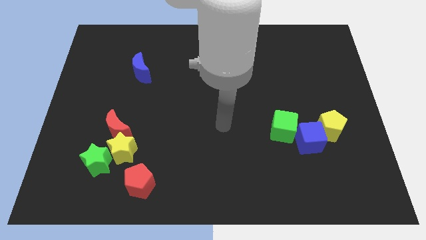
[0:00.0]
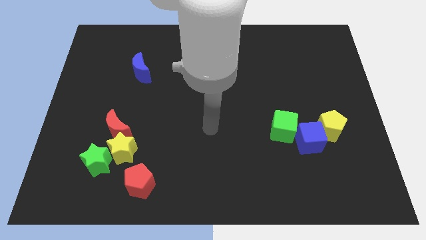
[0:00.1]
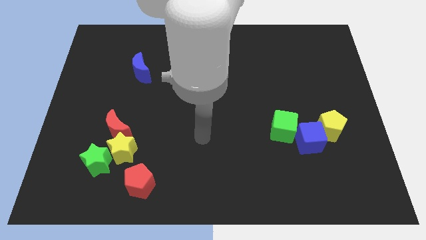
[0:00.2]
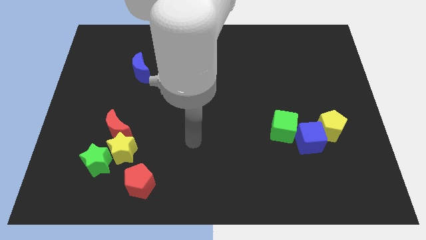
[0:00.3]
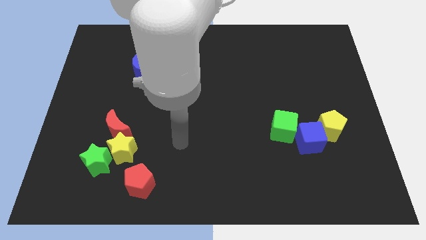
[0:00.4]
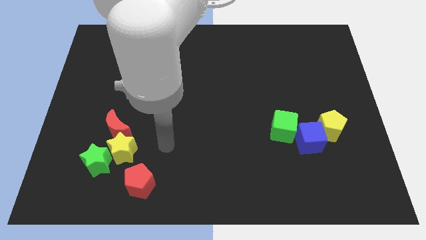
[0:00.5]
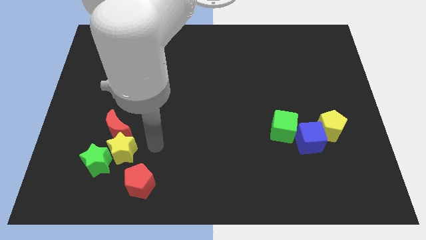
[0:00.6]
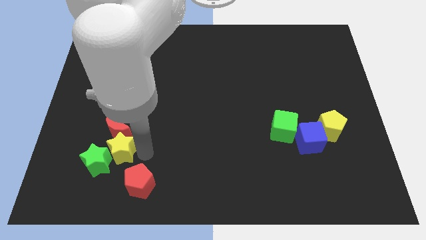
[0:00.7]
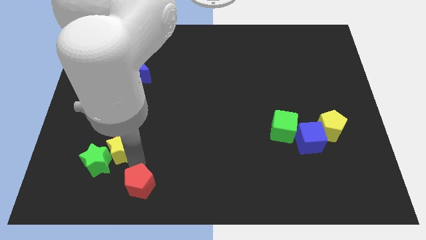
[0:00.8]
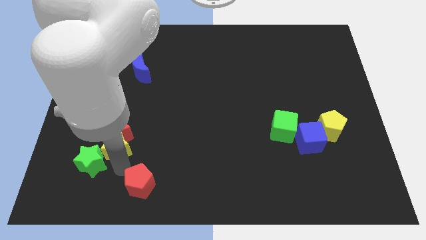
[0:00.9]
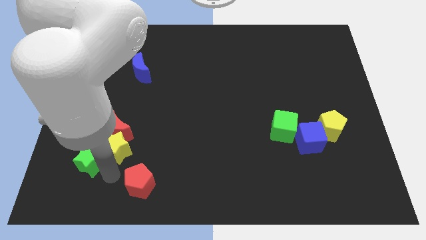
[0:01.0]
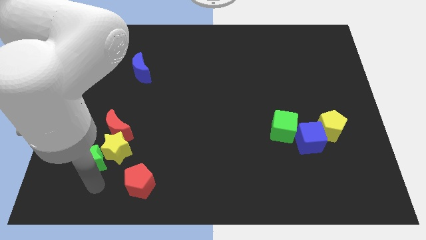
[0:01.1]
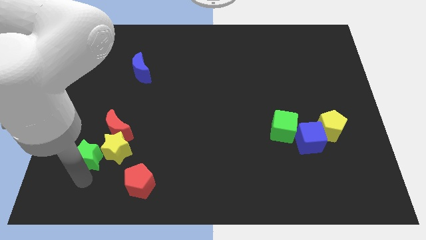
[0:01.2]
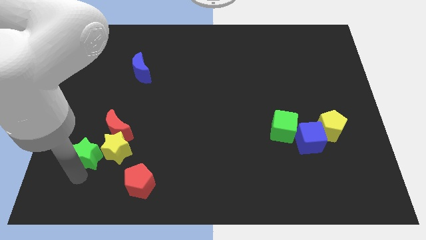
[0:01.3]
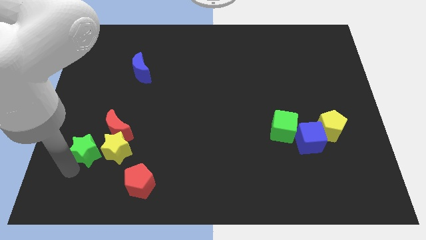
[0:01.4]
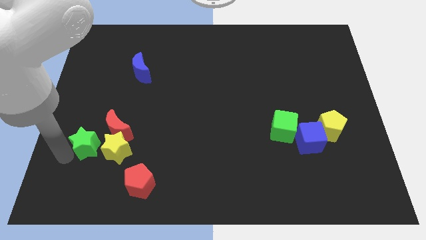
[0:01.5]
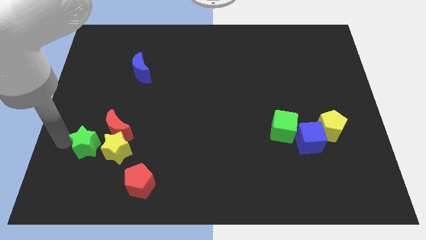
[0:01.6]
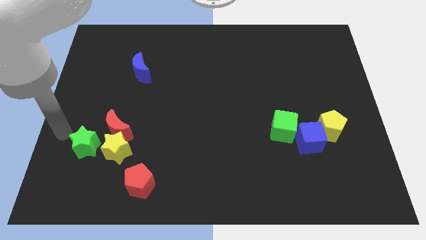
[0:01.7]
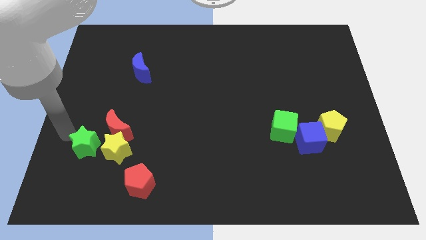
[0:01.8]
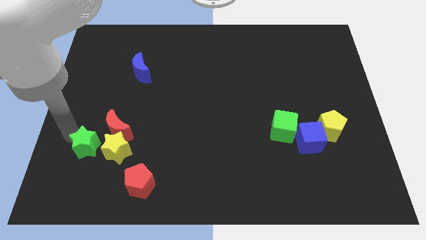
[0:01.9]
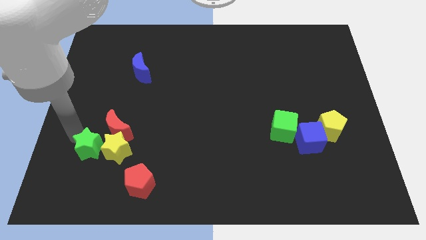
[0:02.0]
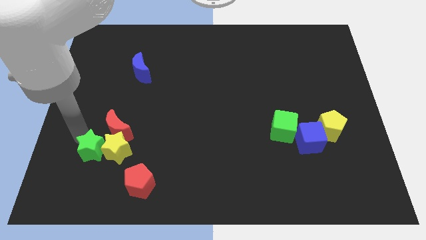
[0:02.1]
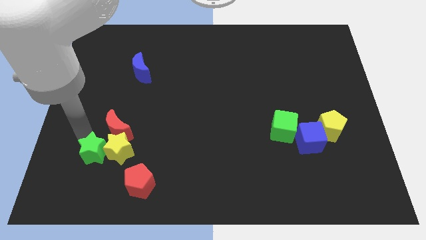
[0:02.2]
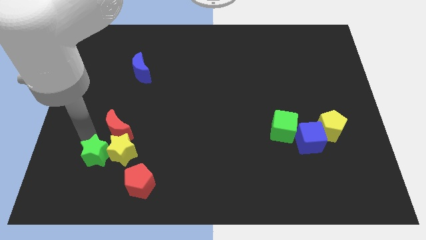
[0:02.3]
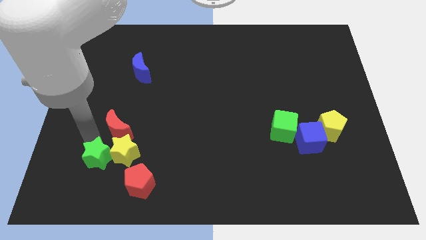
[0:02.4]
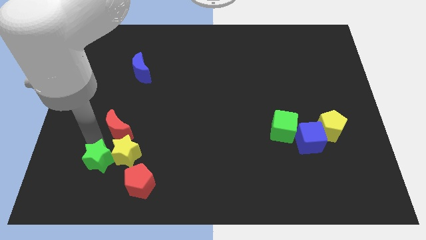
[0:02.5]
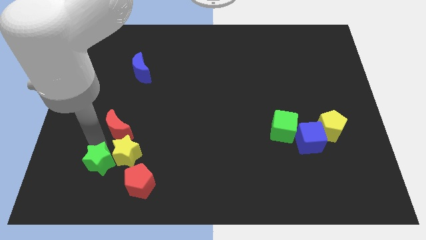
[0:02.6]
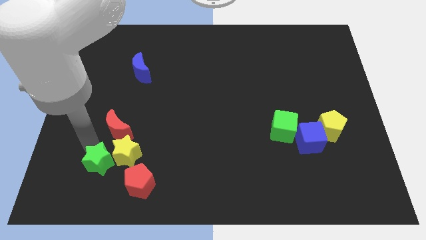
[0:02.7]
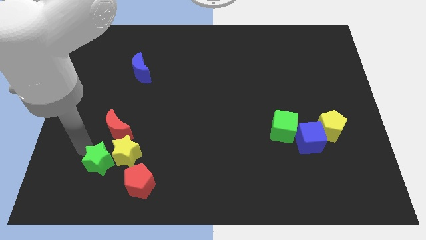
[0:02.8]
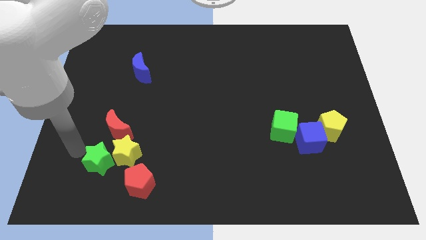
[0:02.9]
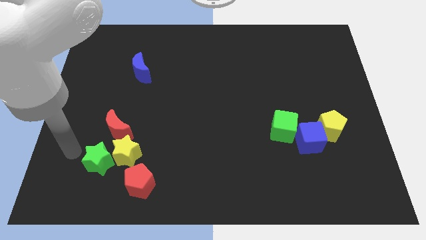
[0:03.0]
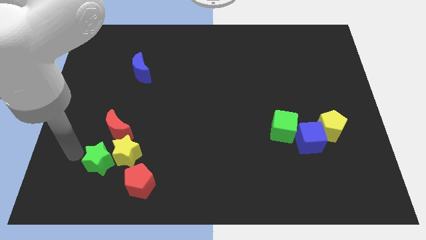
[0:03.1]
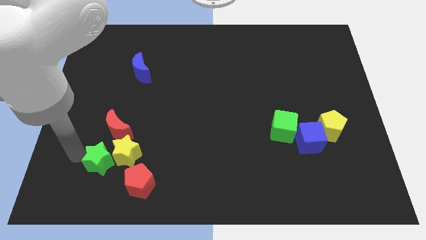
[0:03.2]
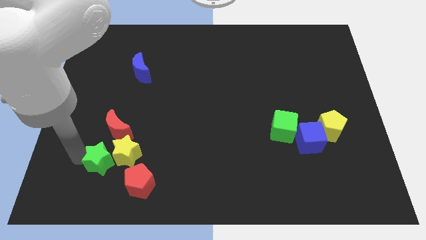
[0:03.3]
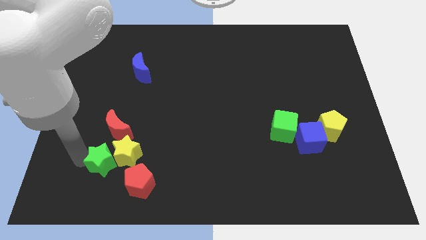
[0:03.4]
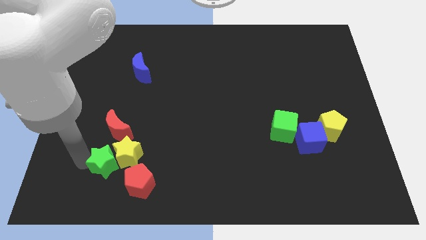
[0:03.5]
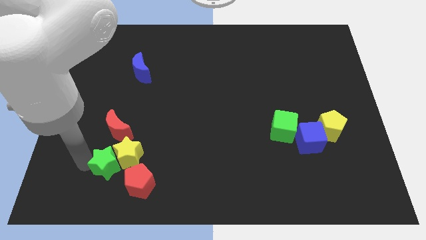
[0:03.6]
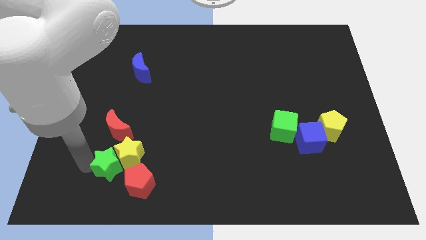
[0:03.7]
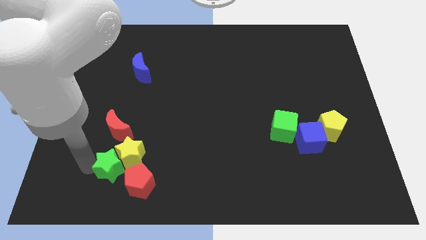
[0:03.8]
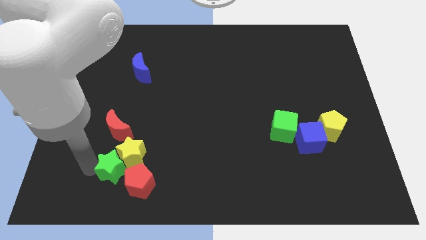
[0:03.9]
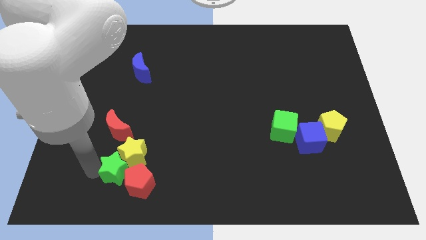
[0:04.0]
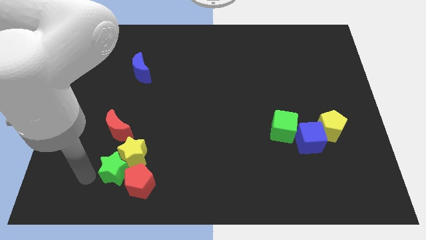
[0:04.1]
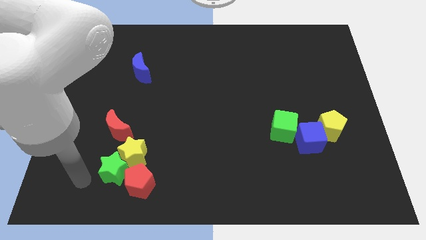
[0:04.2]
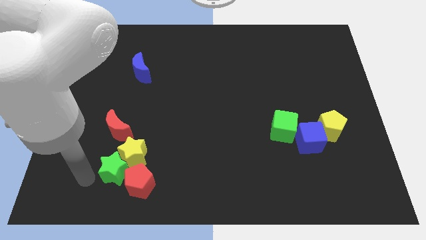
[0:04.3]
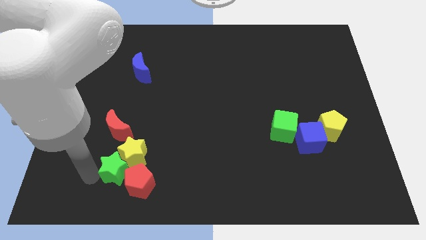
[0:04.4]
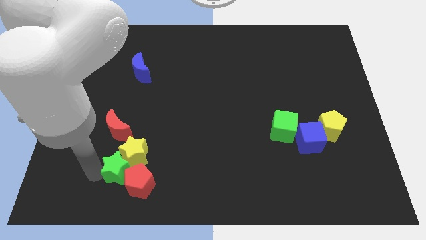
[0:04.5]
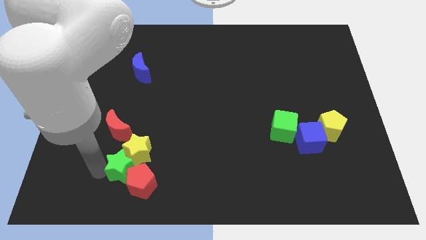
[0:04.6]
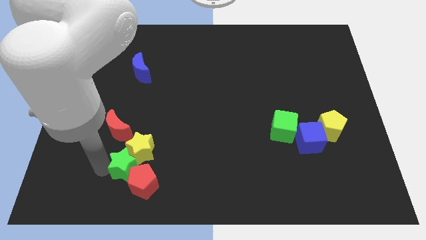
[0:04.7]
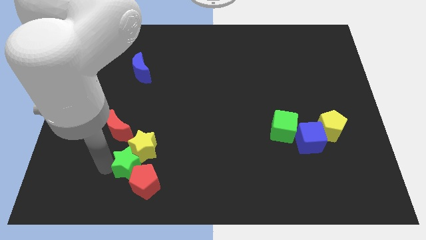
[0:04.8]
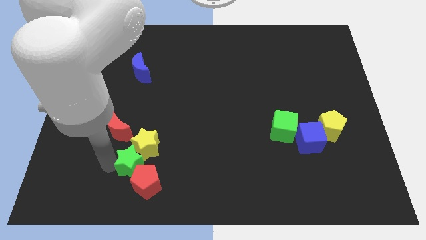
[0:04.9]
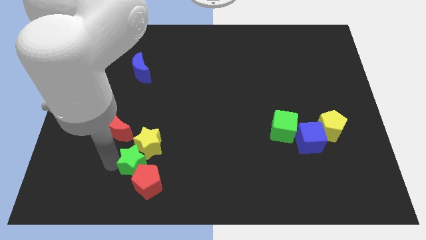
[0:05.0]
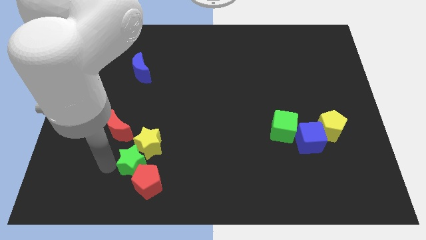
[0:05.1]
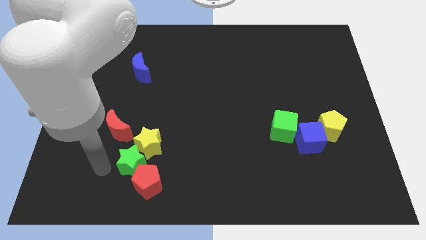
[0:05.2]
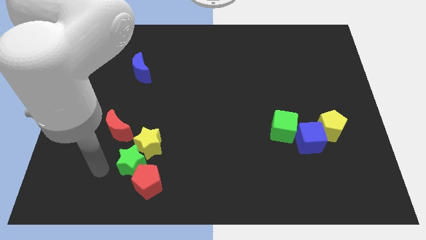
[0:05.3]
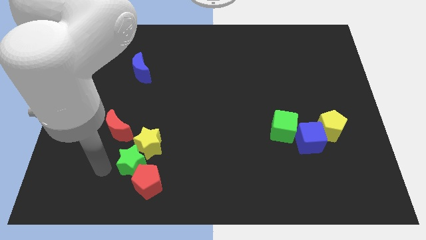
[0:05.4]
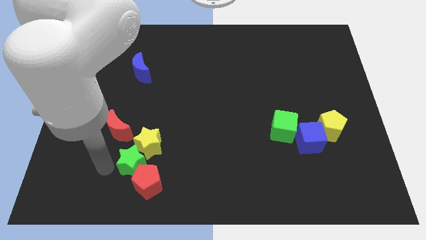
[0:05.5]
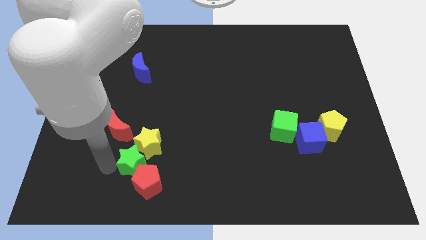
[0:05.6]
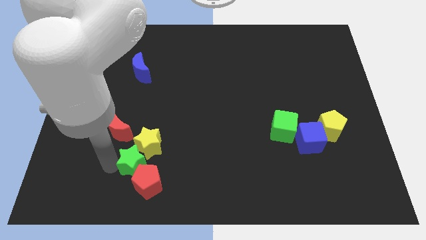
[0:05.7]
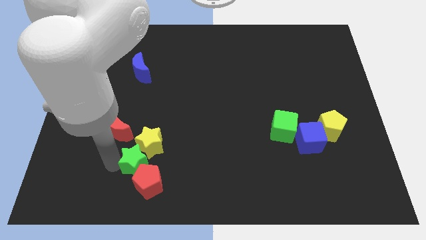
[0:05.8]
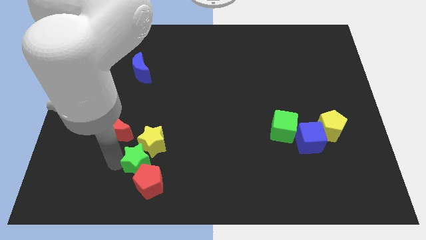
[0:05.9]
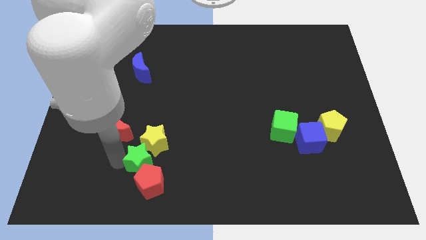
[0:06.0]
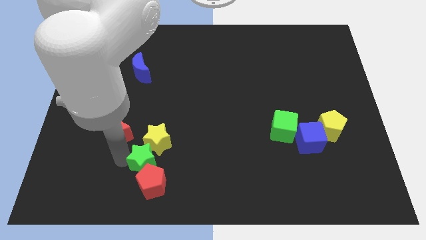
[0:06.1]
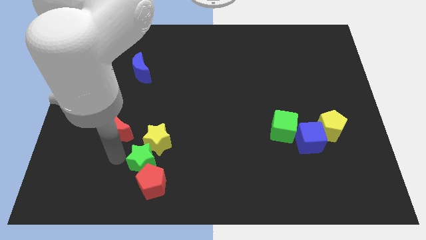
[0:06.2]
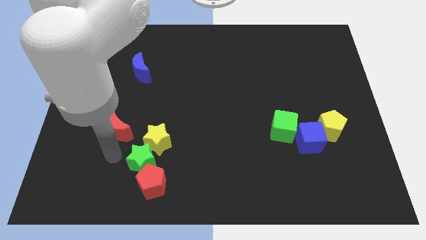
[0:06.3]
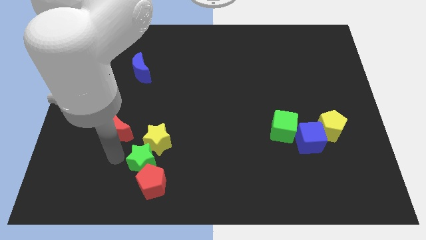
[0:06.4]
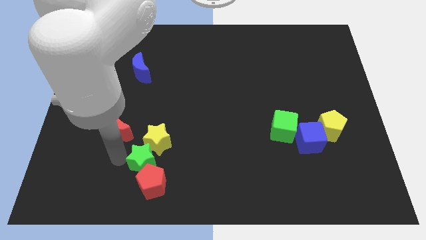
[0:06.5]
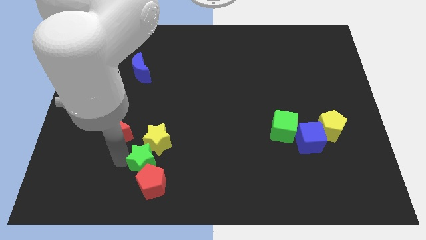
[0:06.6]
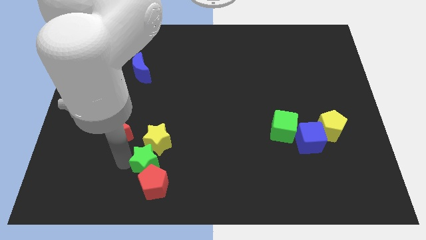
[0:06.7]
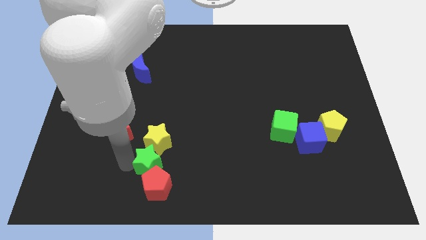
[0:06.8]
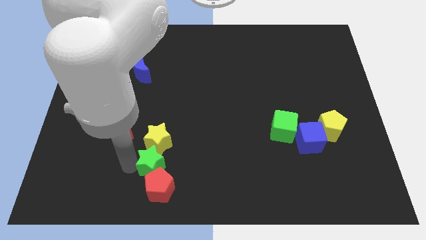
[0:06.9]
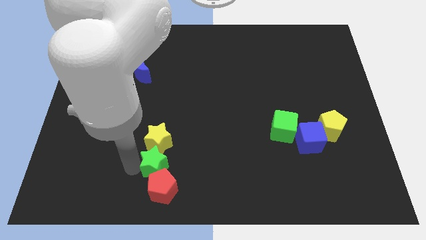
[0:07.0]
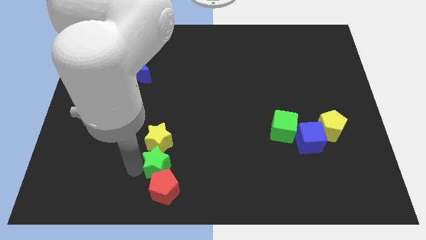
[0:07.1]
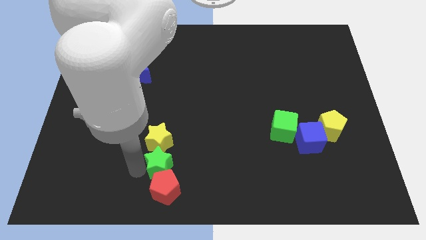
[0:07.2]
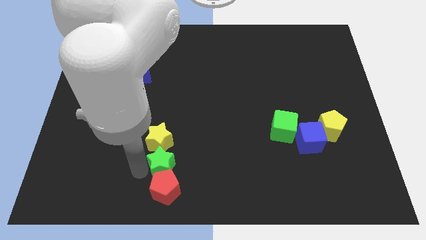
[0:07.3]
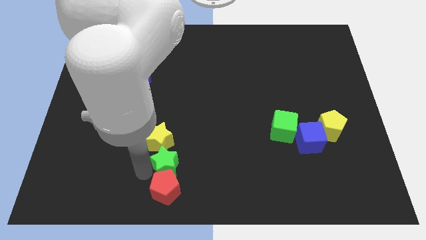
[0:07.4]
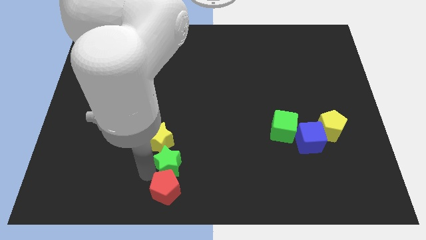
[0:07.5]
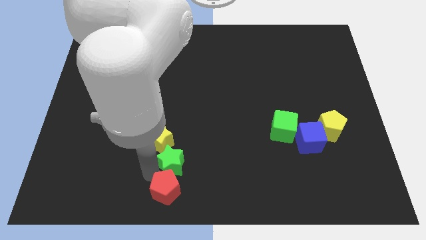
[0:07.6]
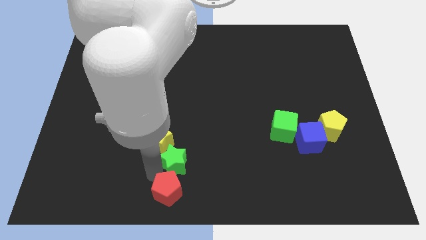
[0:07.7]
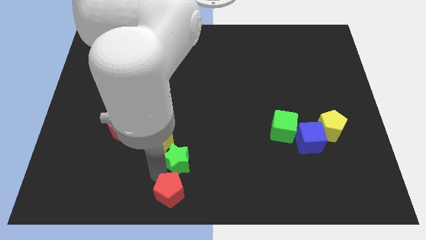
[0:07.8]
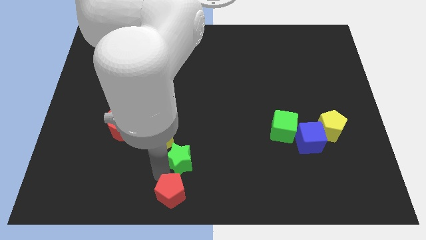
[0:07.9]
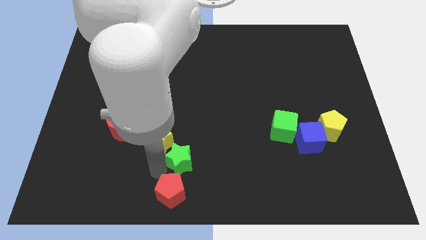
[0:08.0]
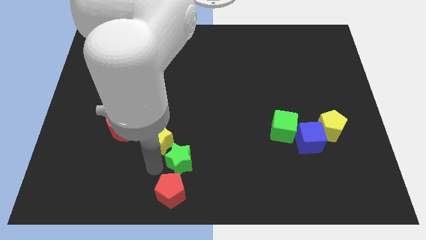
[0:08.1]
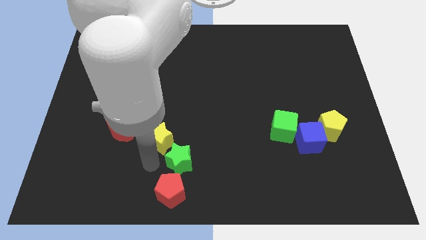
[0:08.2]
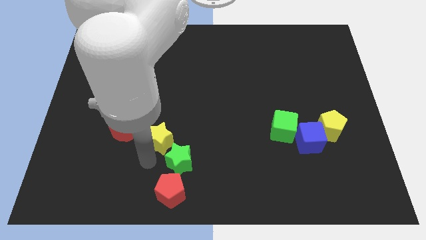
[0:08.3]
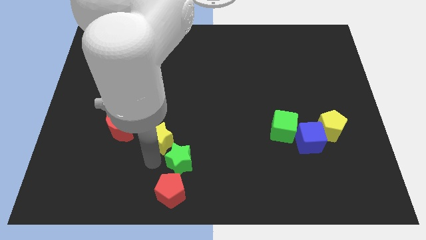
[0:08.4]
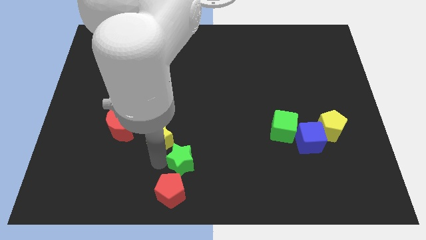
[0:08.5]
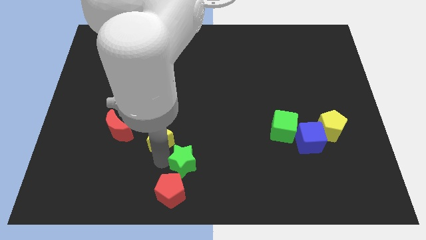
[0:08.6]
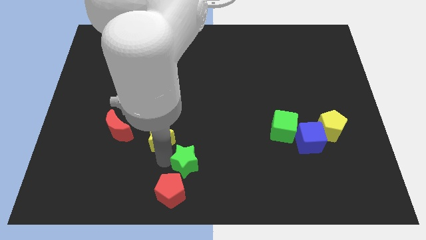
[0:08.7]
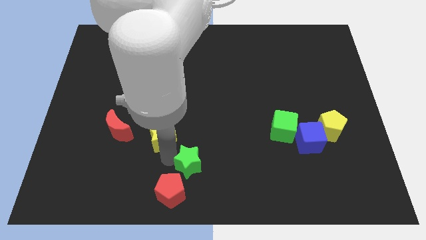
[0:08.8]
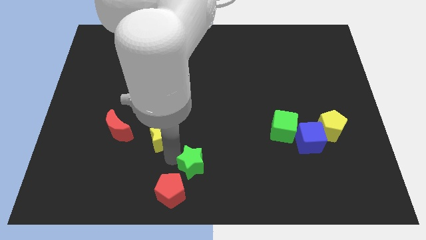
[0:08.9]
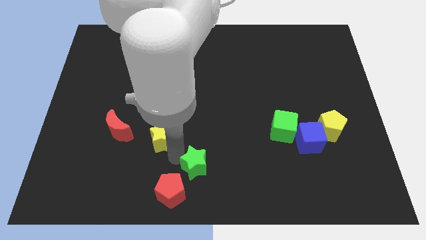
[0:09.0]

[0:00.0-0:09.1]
move the green star right
